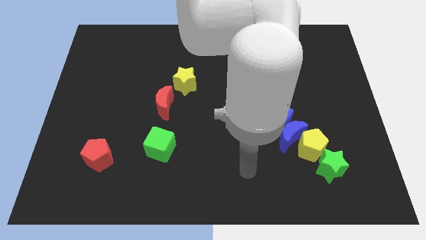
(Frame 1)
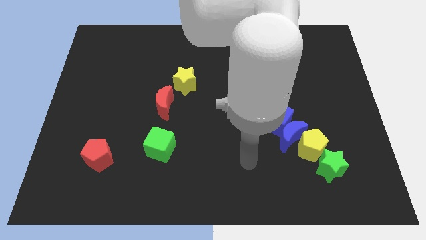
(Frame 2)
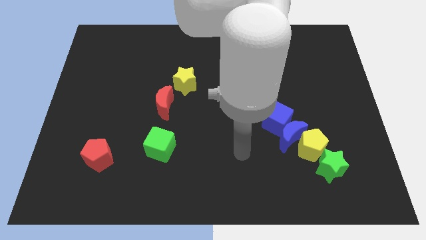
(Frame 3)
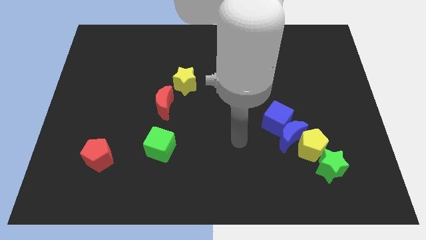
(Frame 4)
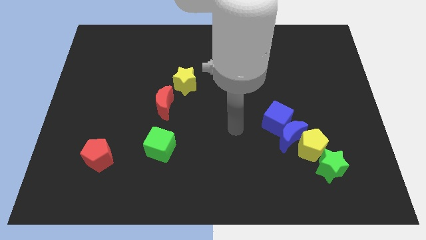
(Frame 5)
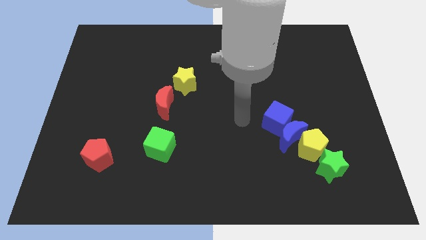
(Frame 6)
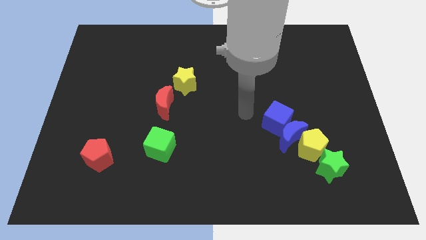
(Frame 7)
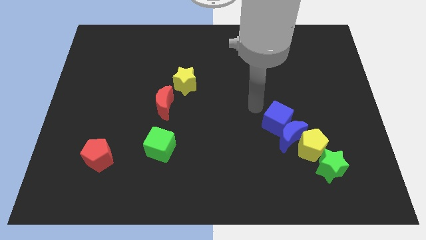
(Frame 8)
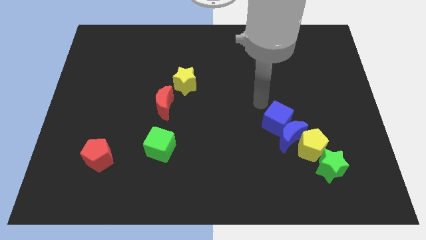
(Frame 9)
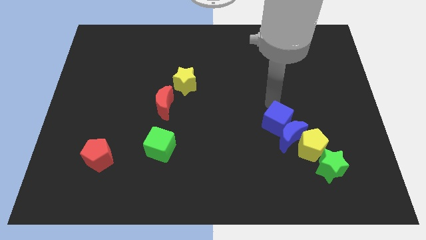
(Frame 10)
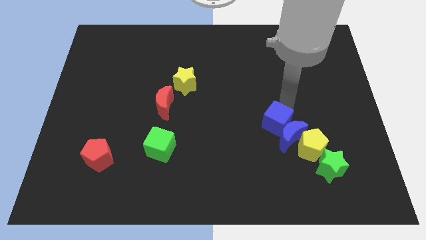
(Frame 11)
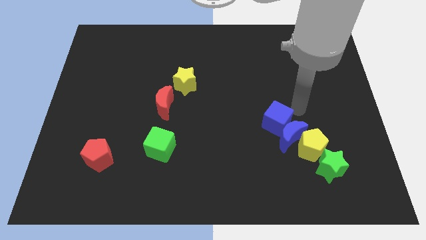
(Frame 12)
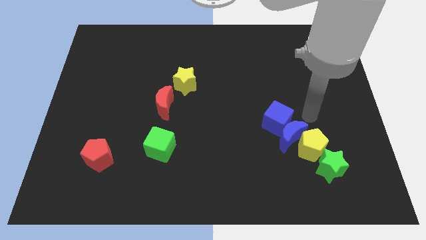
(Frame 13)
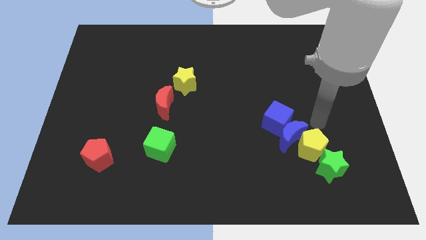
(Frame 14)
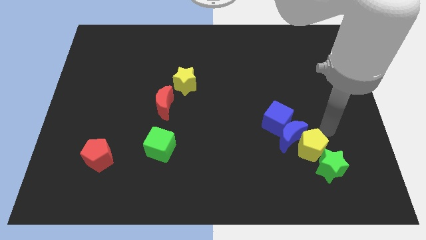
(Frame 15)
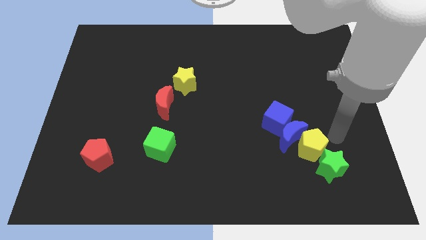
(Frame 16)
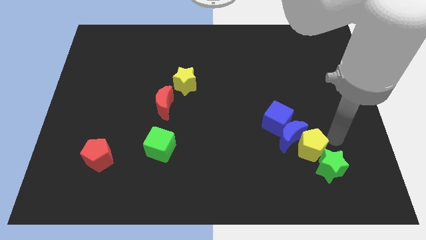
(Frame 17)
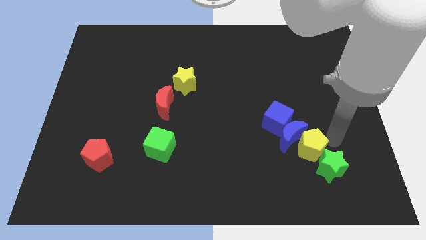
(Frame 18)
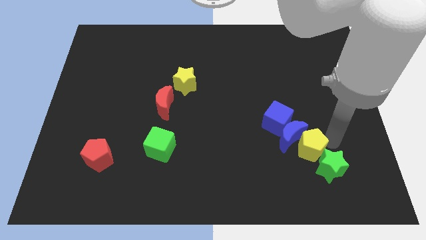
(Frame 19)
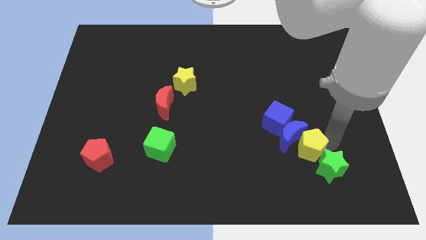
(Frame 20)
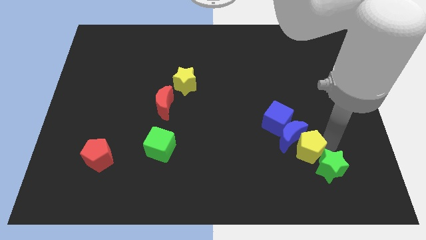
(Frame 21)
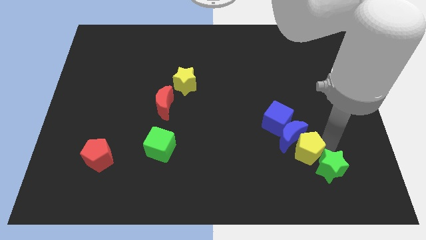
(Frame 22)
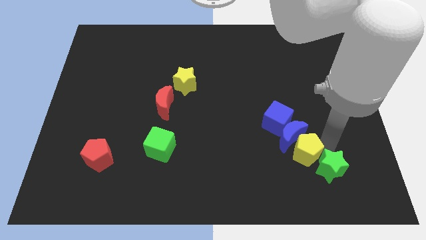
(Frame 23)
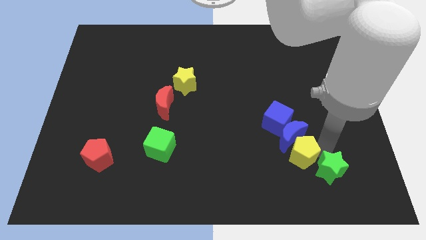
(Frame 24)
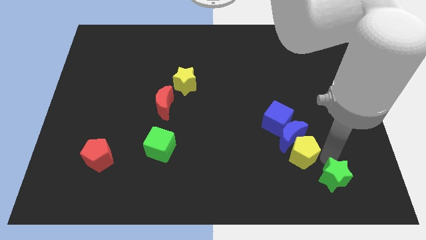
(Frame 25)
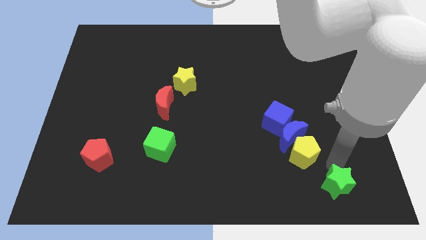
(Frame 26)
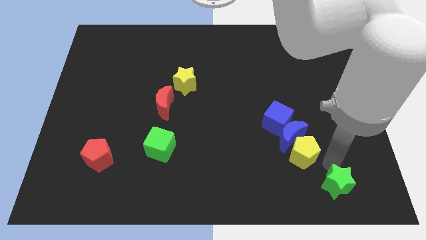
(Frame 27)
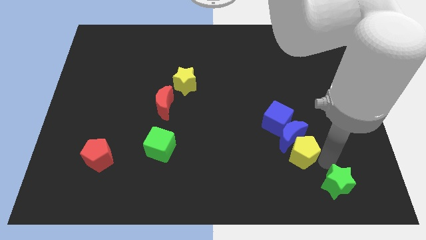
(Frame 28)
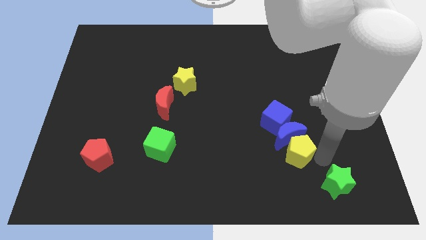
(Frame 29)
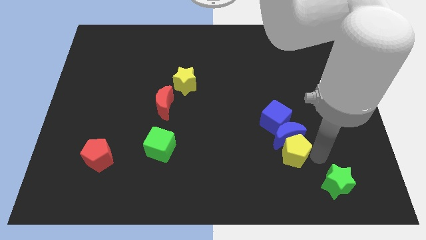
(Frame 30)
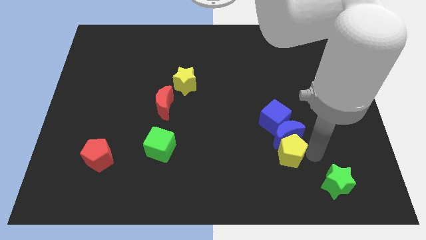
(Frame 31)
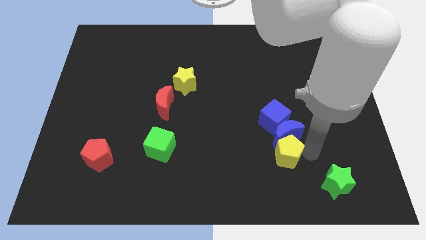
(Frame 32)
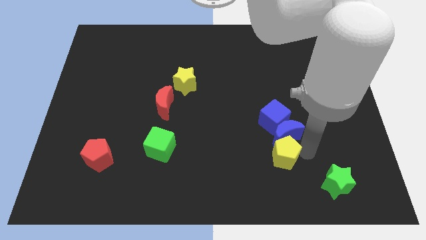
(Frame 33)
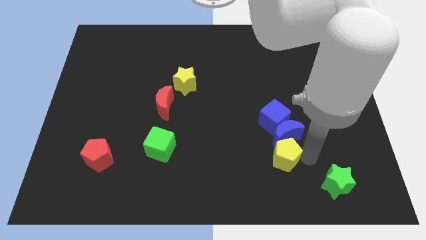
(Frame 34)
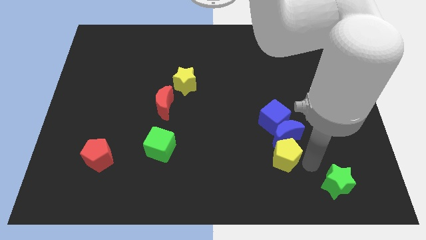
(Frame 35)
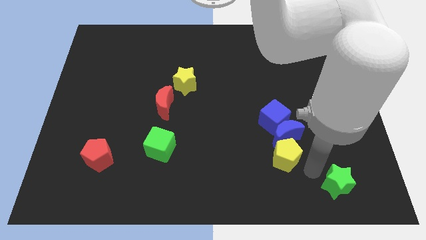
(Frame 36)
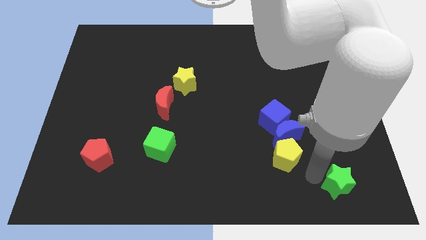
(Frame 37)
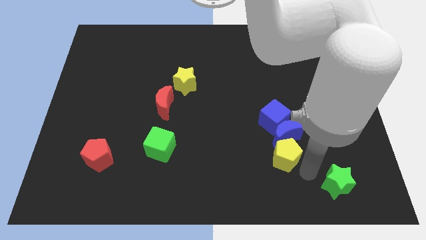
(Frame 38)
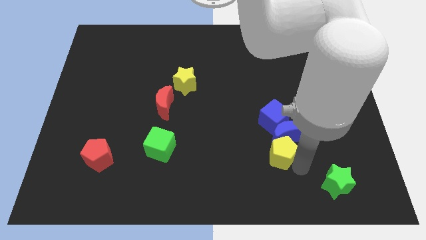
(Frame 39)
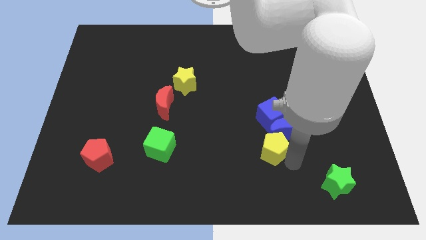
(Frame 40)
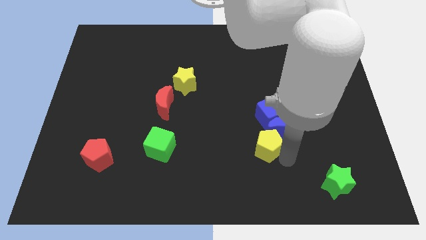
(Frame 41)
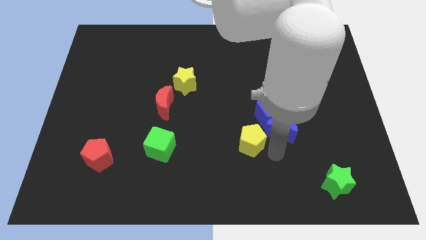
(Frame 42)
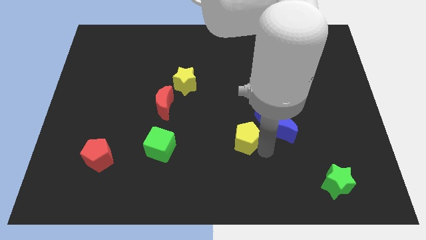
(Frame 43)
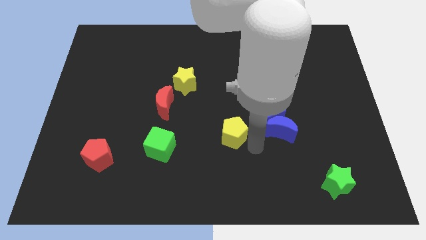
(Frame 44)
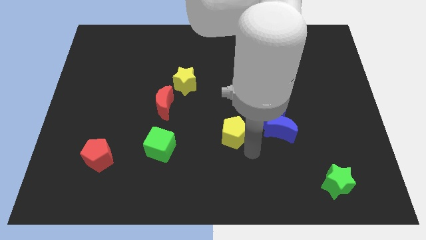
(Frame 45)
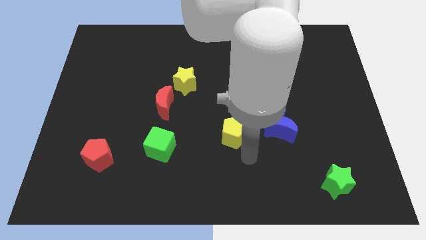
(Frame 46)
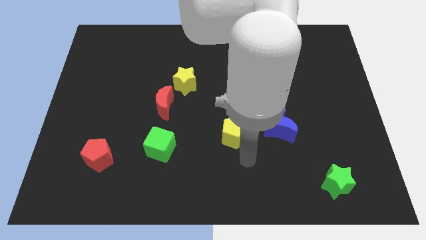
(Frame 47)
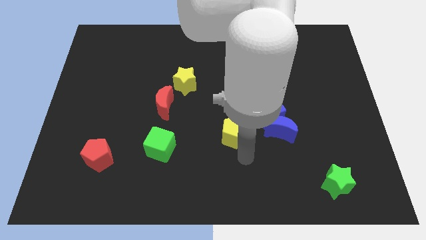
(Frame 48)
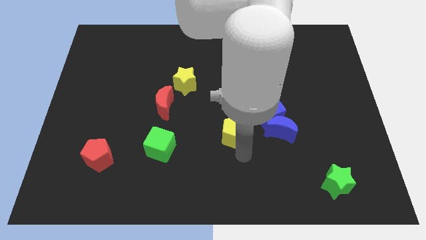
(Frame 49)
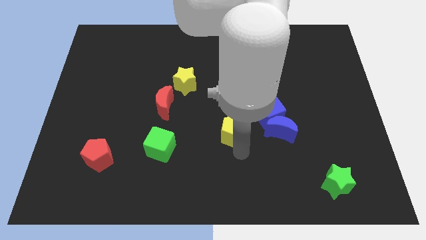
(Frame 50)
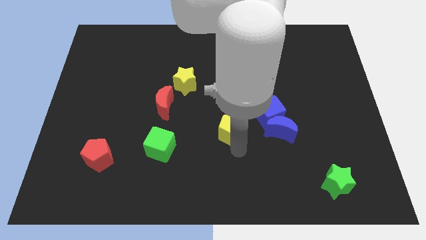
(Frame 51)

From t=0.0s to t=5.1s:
put the yellow pentagon just left of the blue cube

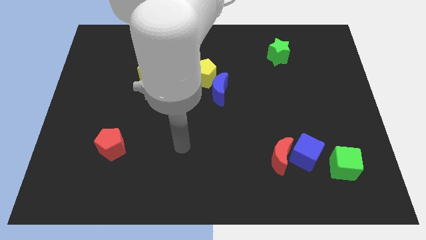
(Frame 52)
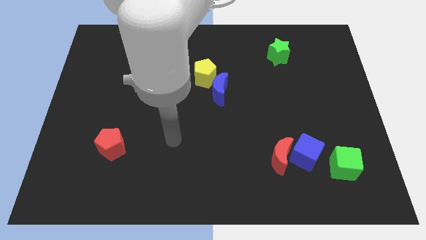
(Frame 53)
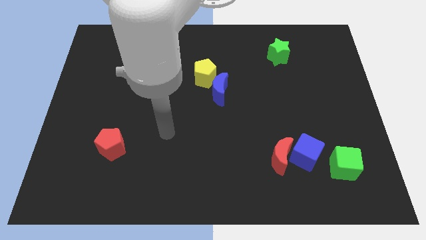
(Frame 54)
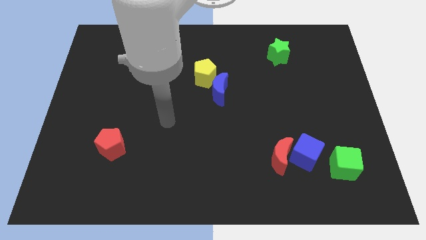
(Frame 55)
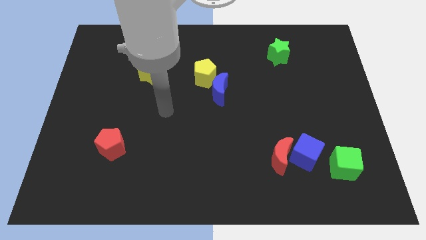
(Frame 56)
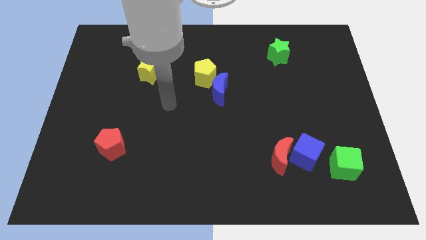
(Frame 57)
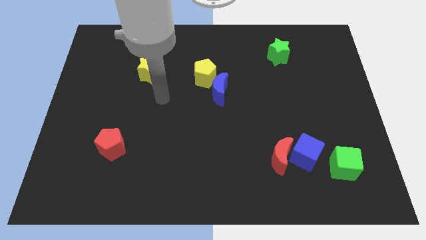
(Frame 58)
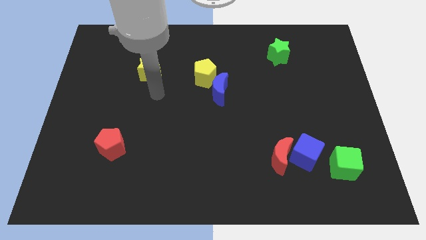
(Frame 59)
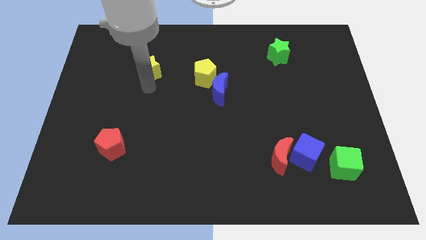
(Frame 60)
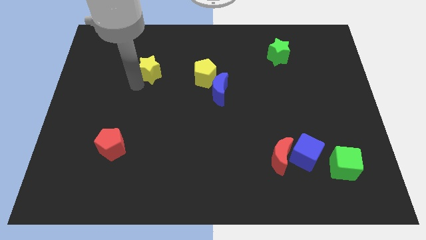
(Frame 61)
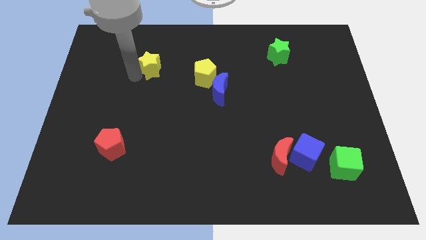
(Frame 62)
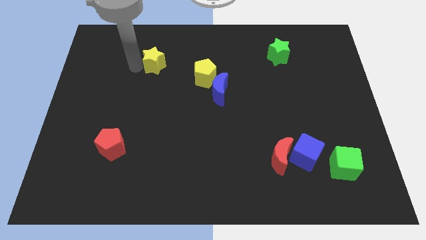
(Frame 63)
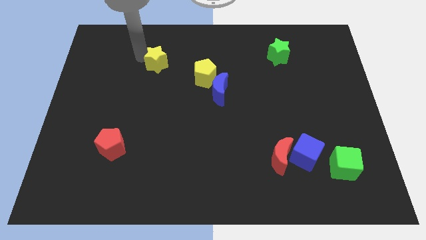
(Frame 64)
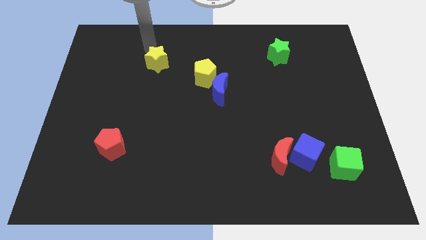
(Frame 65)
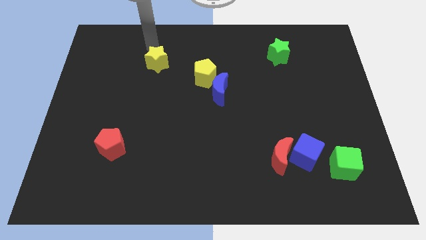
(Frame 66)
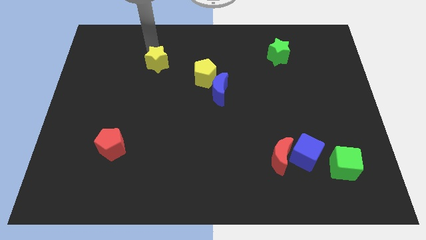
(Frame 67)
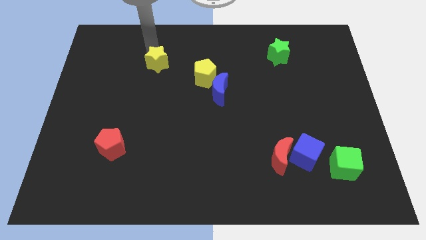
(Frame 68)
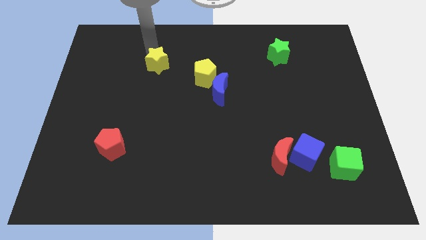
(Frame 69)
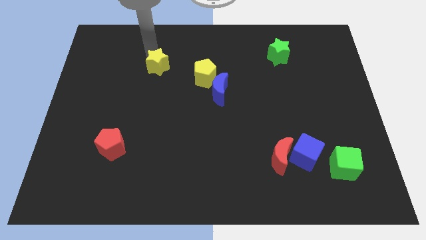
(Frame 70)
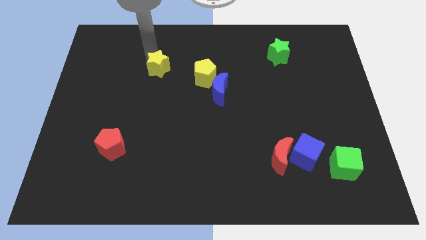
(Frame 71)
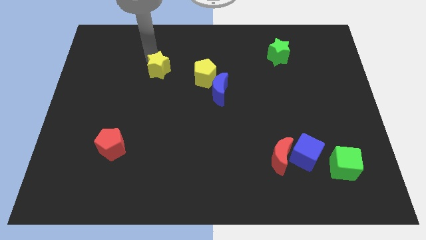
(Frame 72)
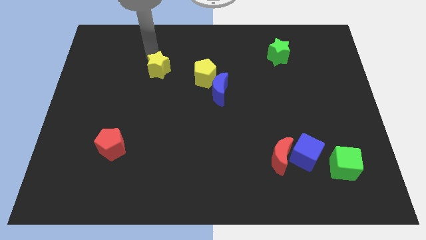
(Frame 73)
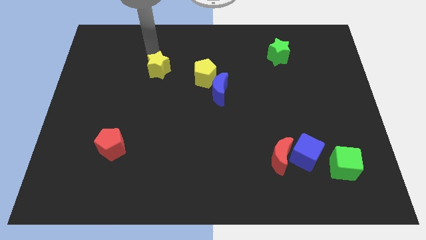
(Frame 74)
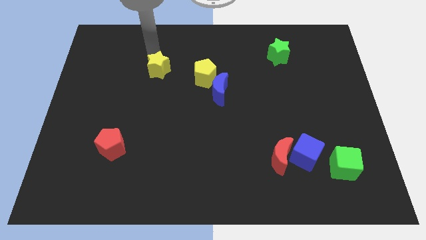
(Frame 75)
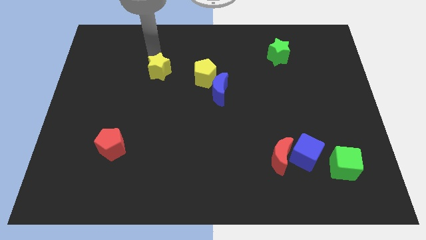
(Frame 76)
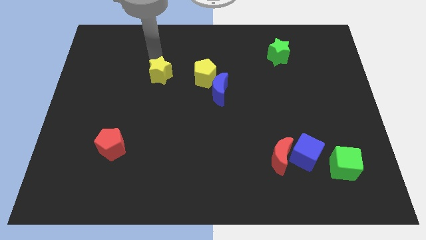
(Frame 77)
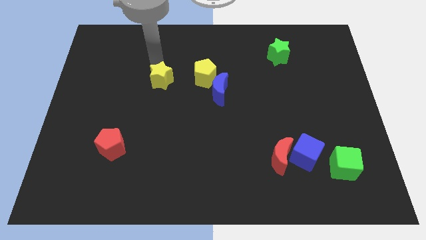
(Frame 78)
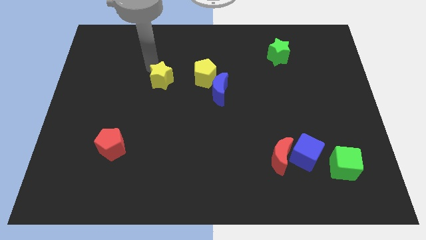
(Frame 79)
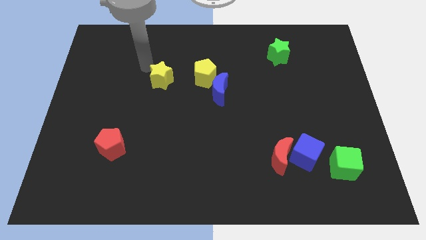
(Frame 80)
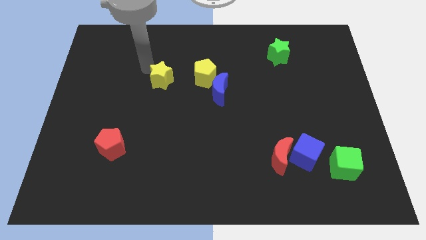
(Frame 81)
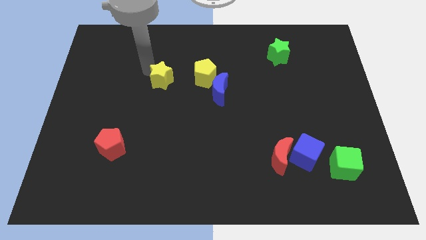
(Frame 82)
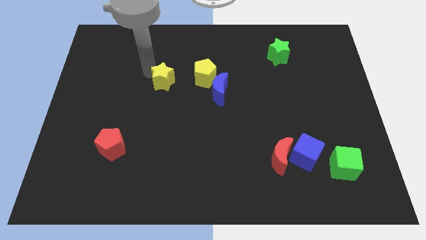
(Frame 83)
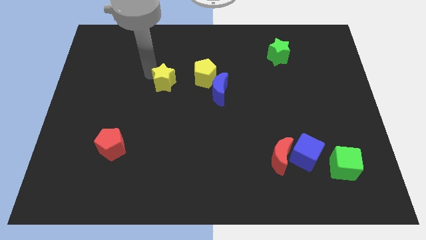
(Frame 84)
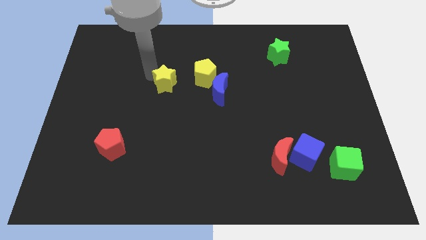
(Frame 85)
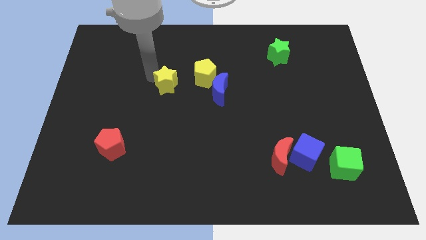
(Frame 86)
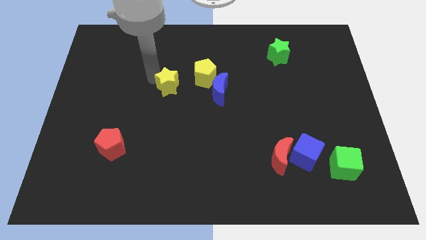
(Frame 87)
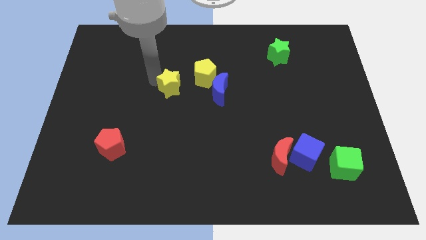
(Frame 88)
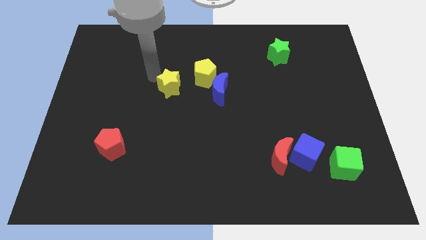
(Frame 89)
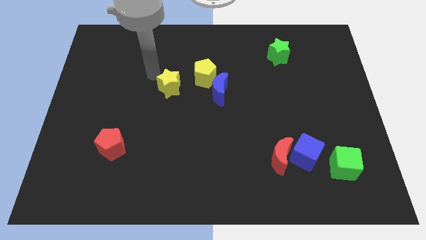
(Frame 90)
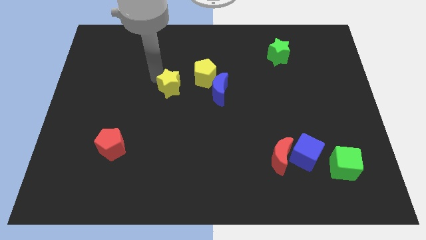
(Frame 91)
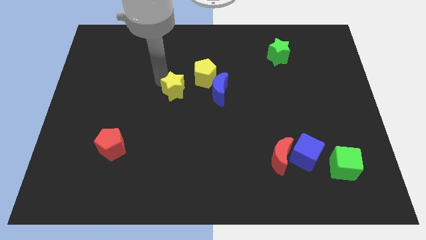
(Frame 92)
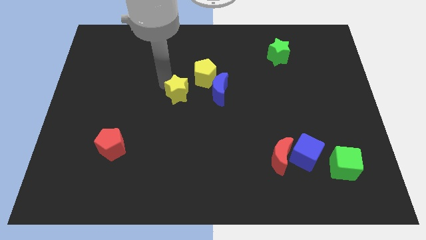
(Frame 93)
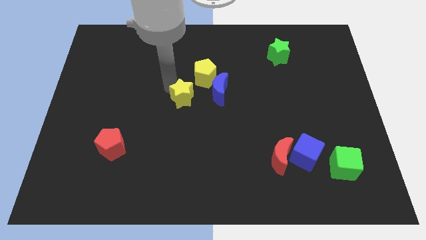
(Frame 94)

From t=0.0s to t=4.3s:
put the yellow star diagonally down and to the left of the blue moon
